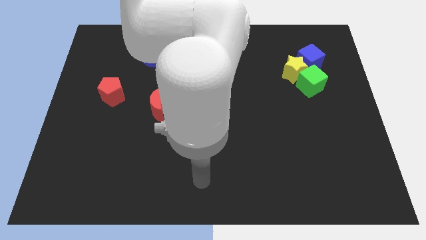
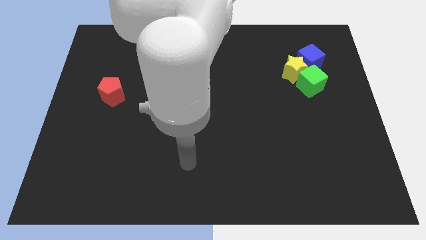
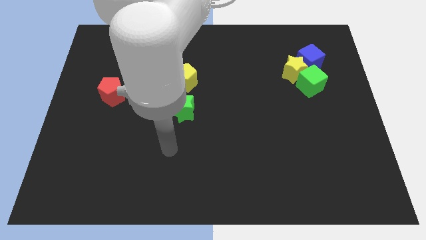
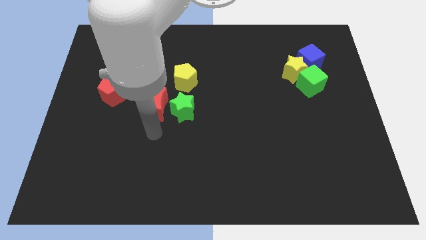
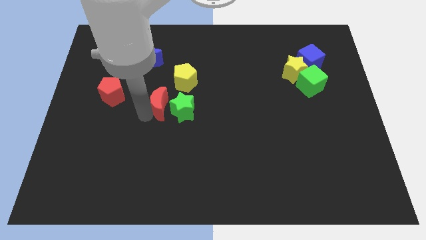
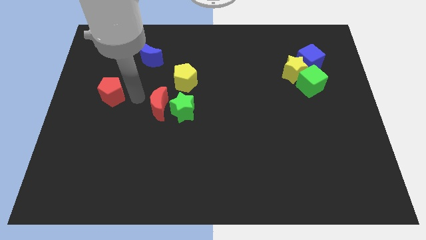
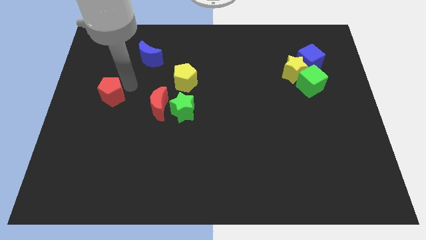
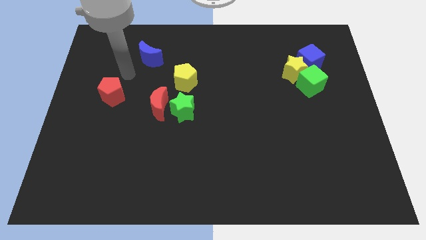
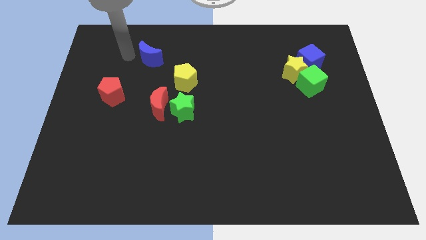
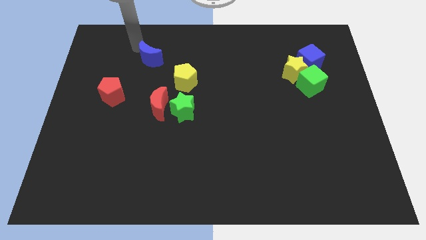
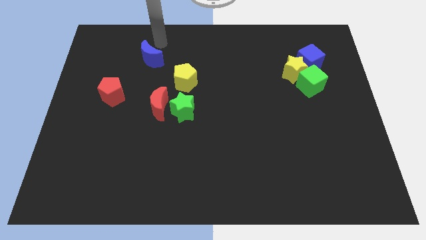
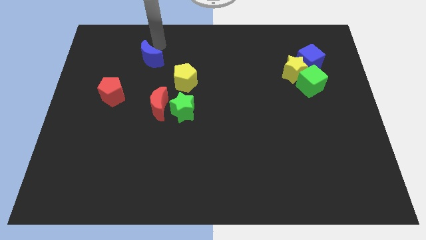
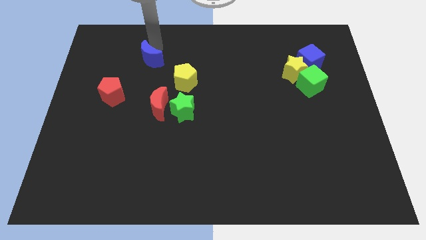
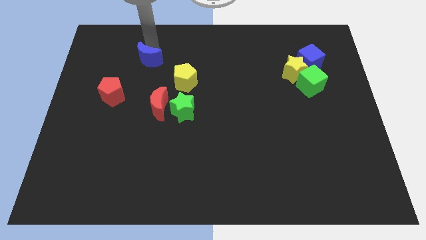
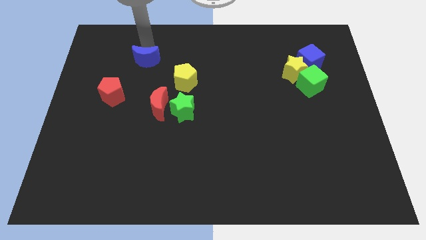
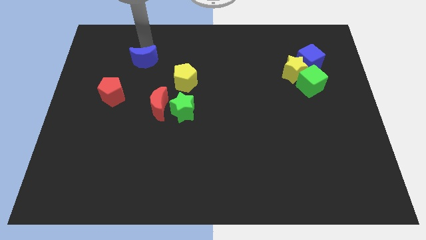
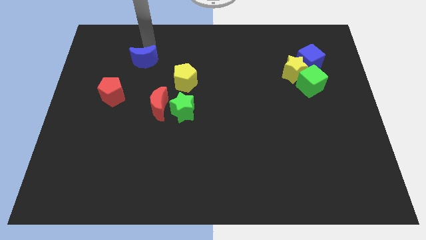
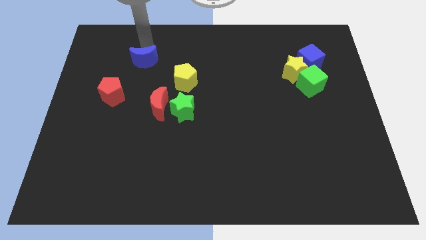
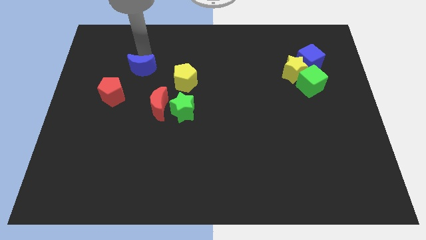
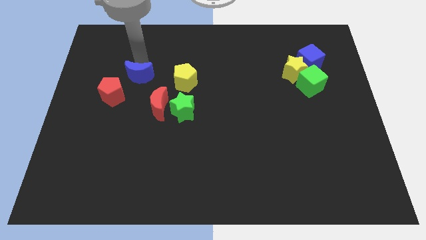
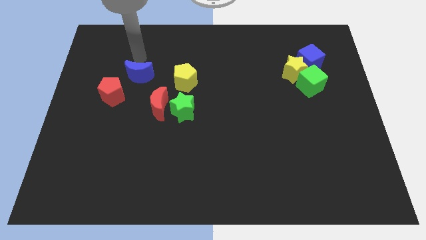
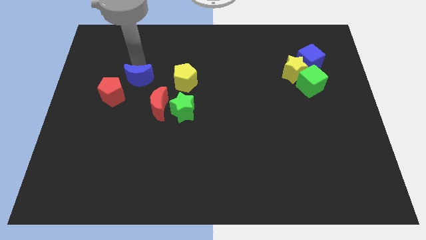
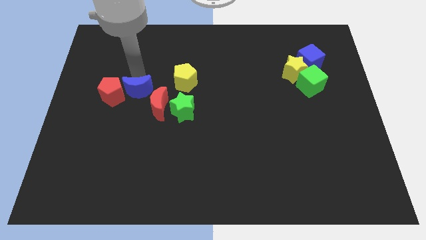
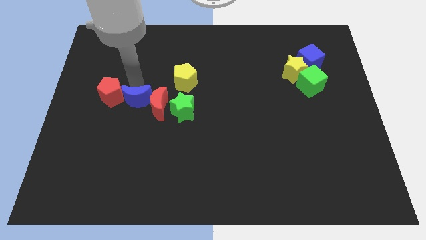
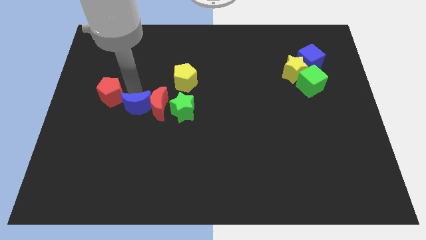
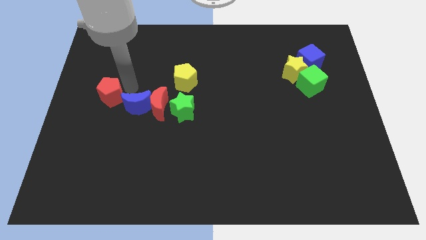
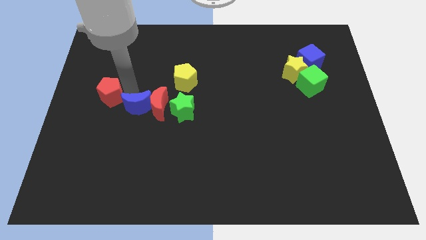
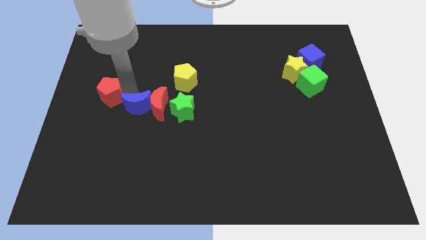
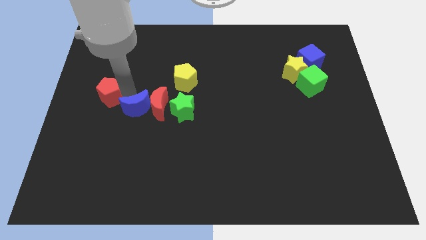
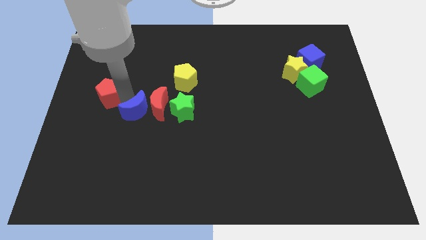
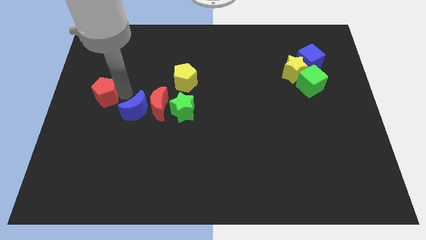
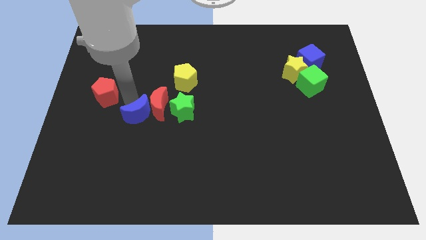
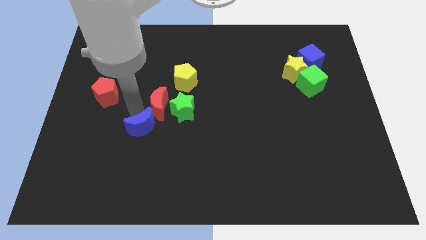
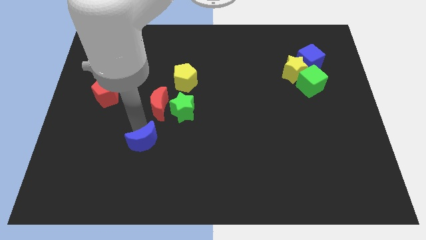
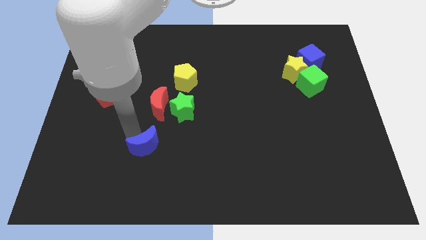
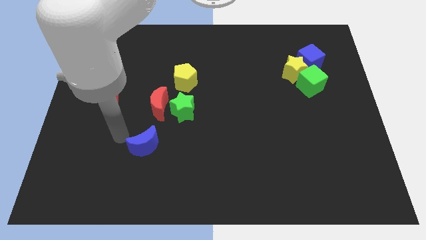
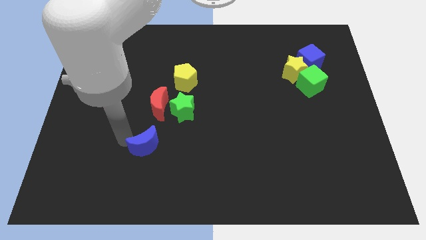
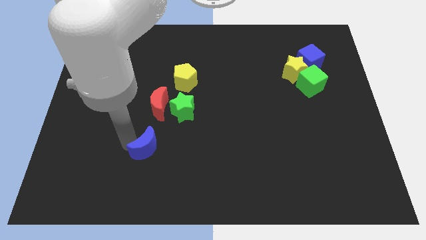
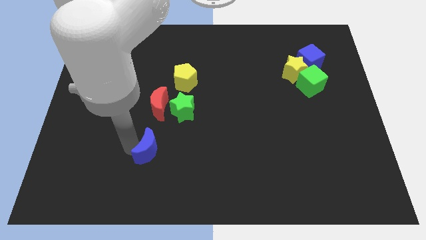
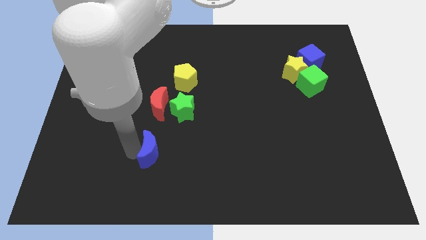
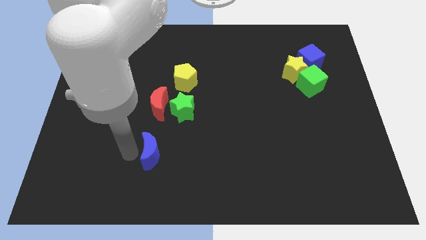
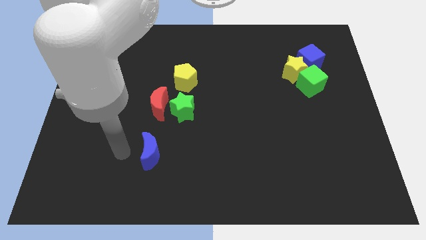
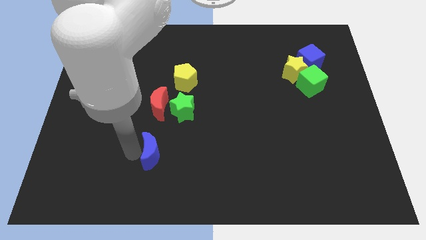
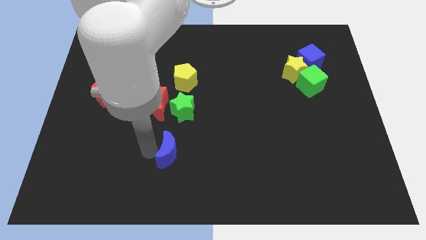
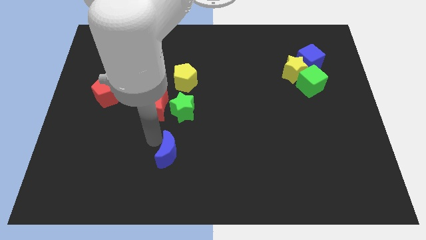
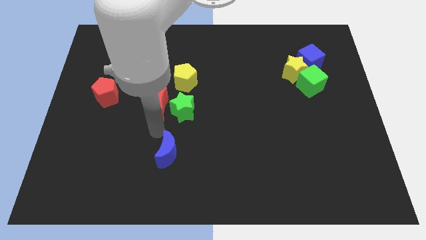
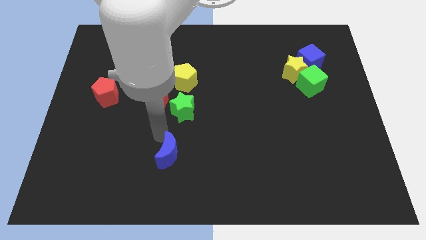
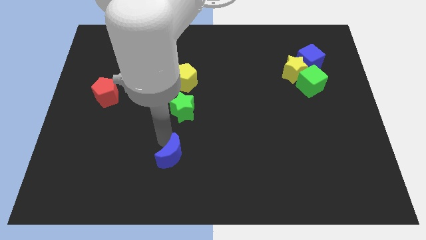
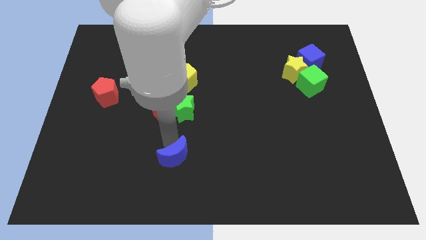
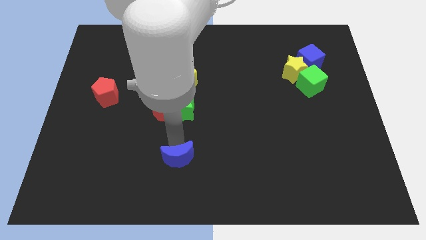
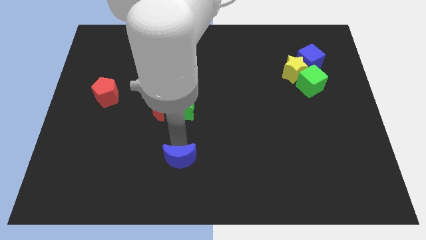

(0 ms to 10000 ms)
push the blue moon to the bottom

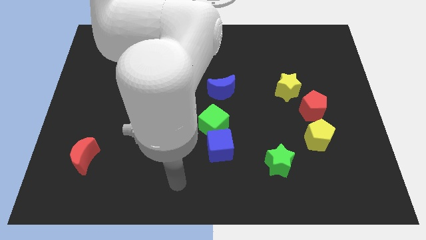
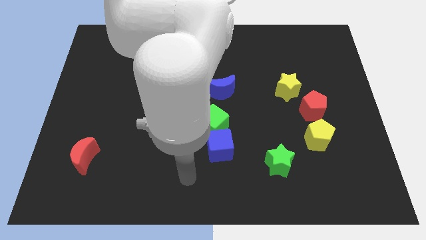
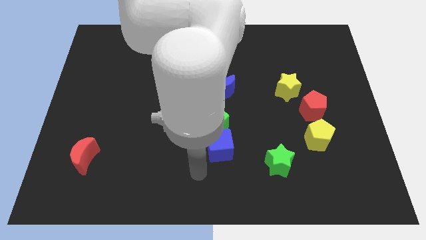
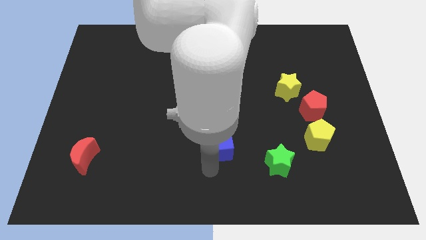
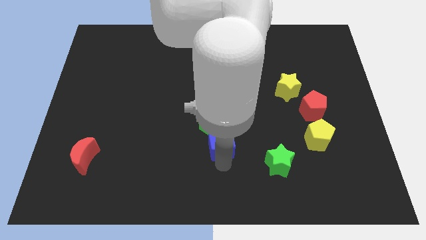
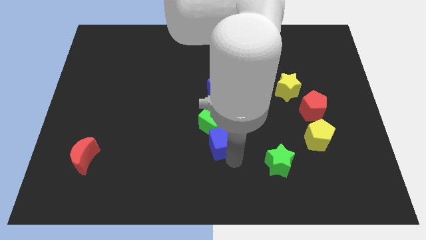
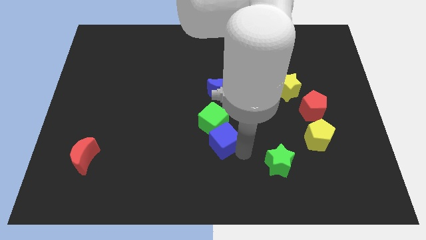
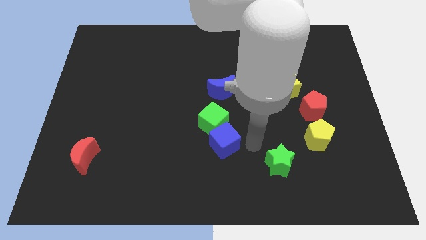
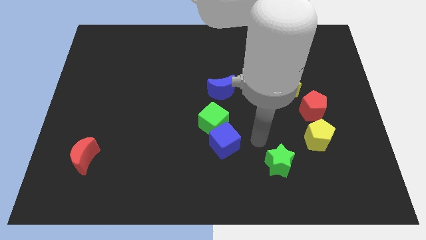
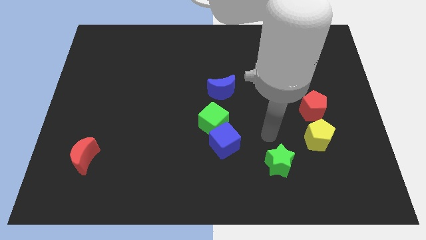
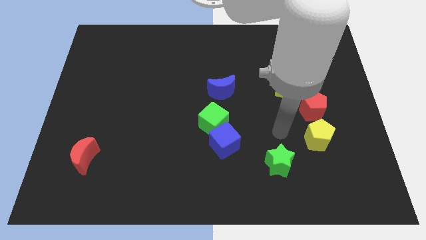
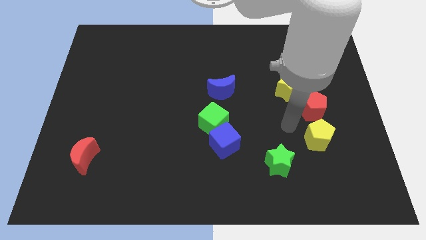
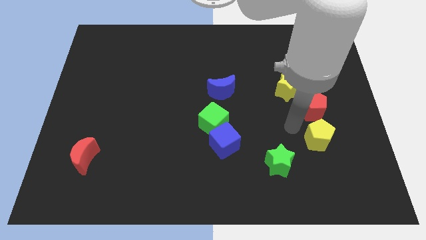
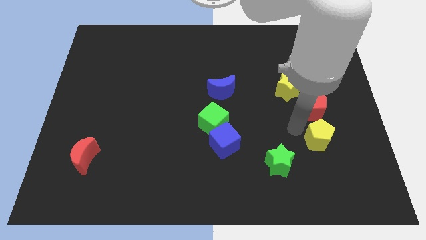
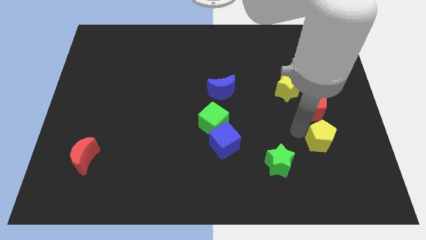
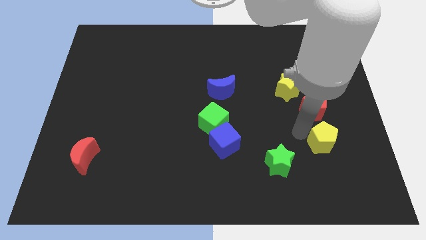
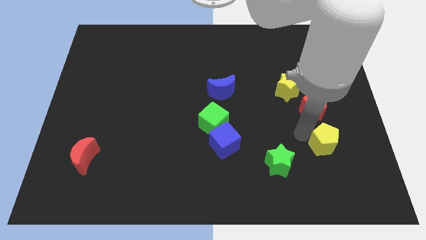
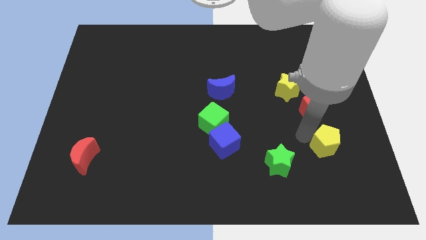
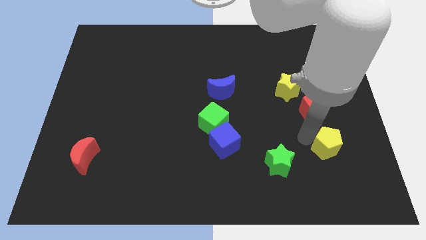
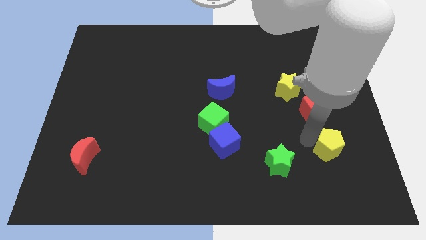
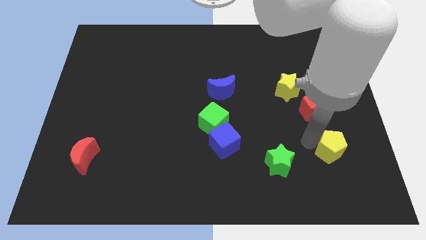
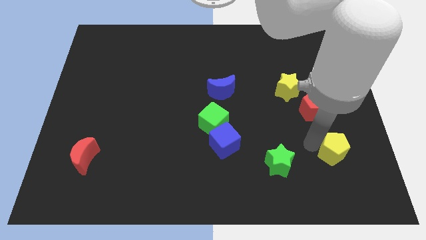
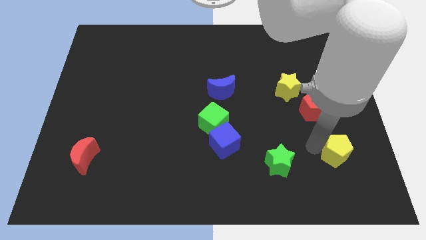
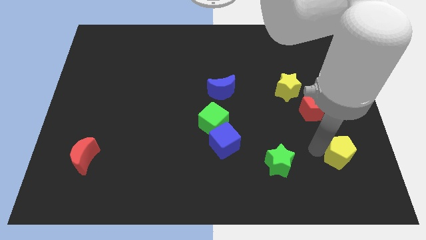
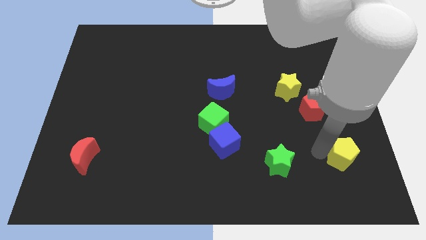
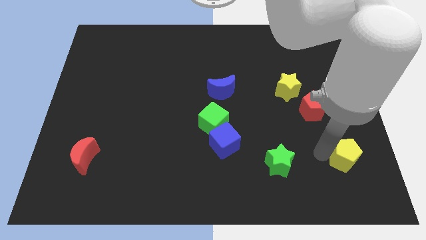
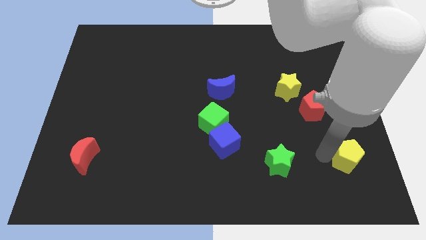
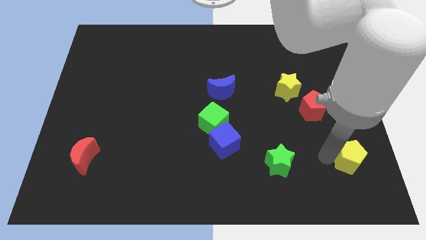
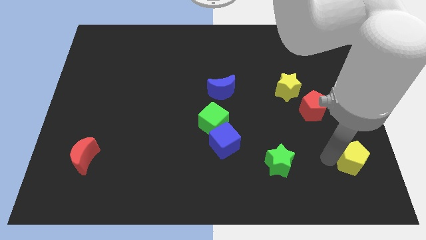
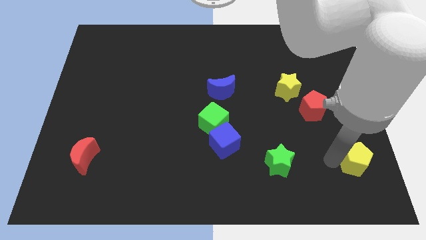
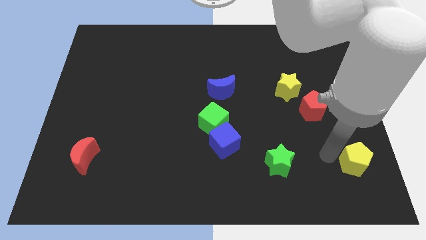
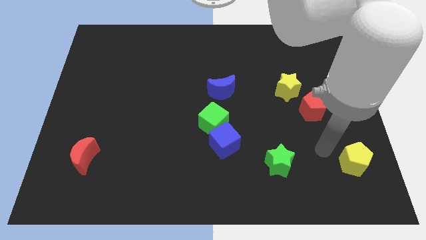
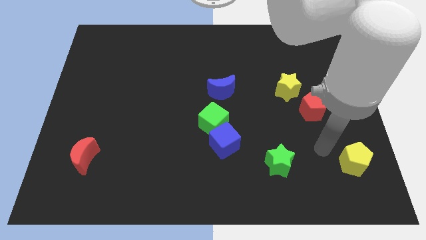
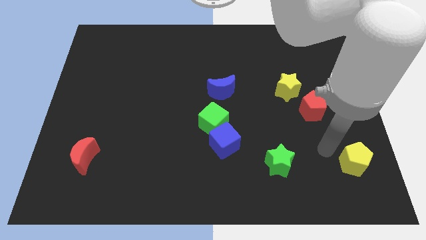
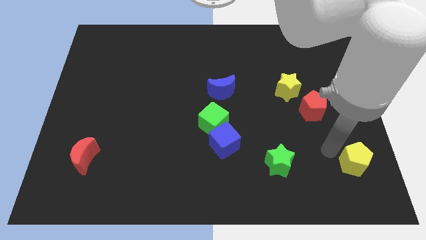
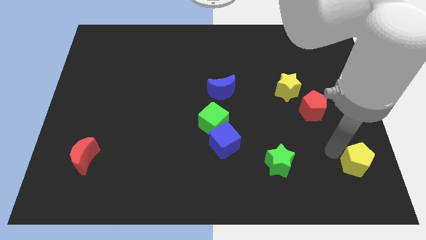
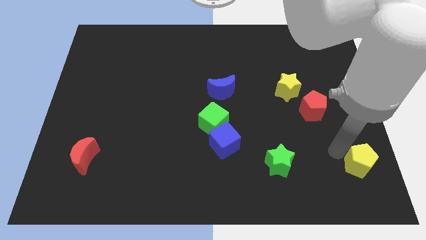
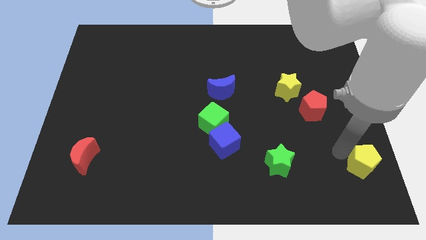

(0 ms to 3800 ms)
put the yellow pentagon to the lower right corner
